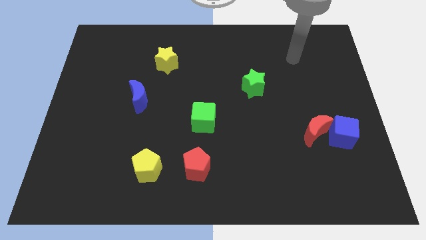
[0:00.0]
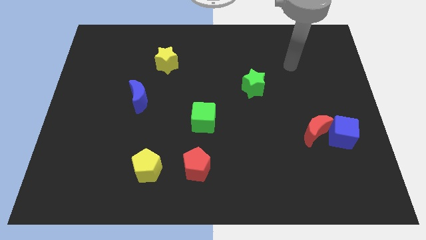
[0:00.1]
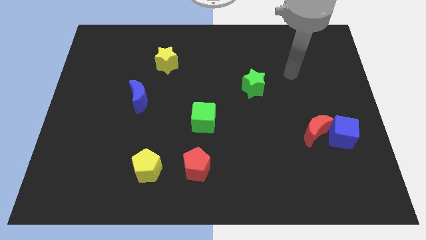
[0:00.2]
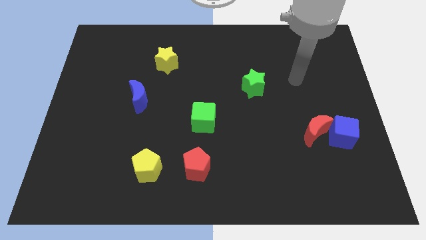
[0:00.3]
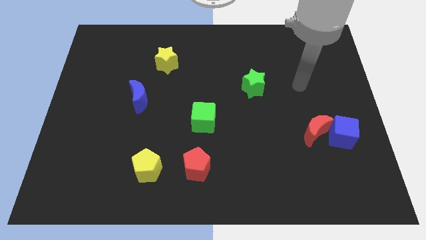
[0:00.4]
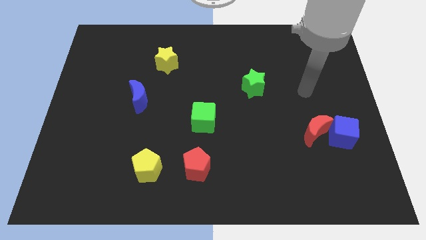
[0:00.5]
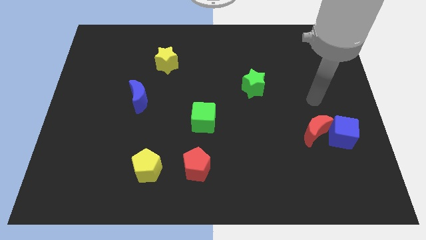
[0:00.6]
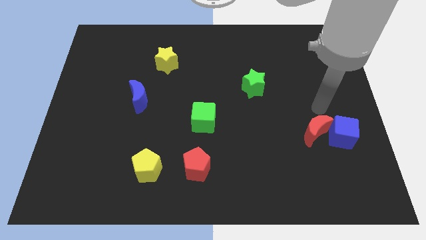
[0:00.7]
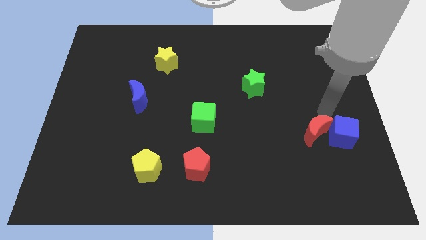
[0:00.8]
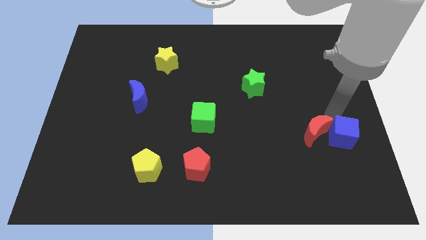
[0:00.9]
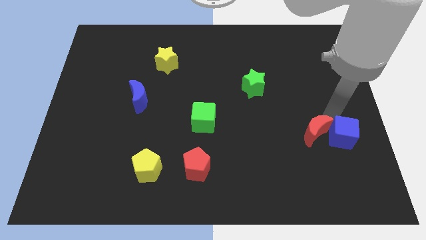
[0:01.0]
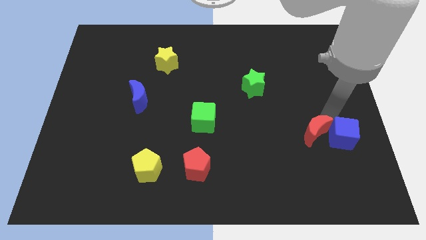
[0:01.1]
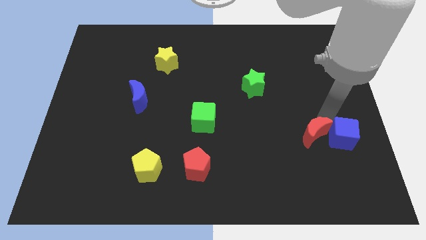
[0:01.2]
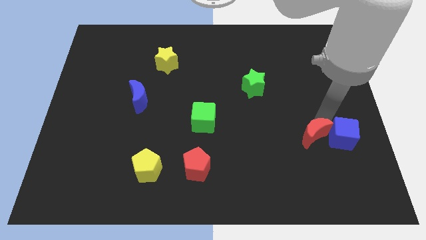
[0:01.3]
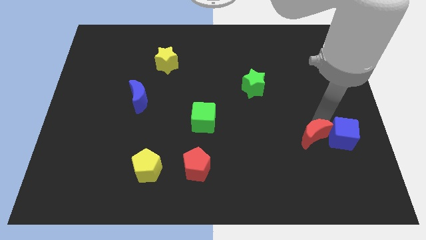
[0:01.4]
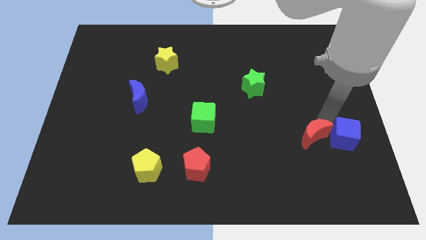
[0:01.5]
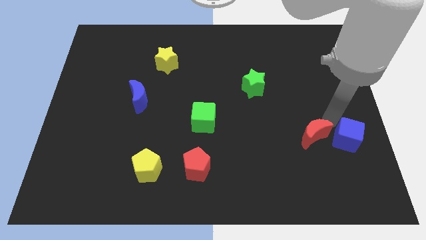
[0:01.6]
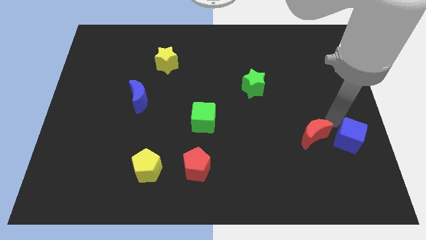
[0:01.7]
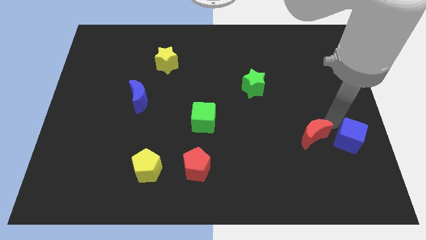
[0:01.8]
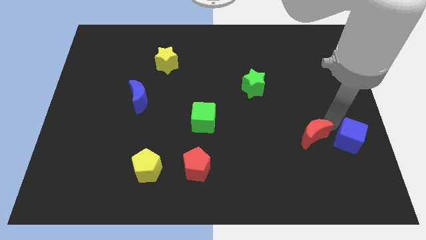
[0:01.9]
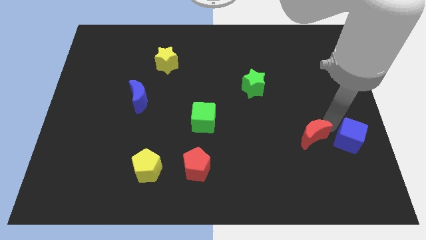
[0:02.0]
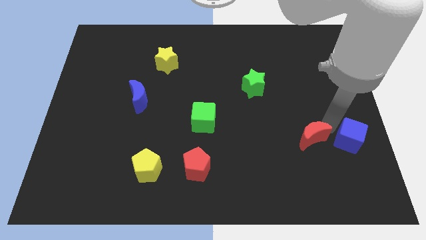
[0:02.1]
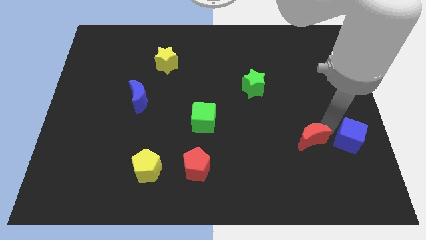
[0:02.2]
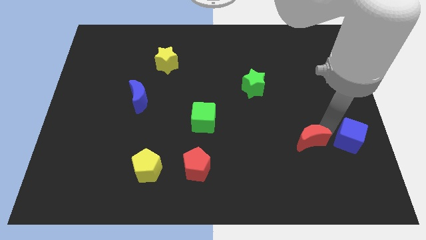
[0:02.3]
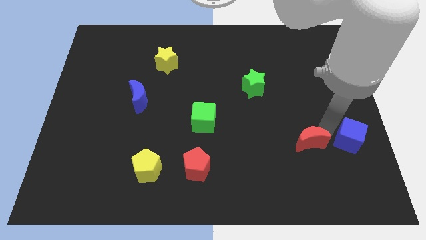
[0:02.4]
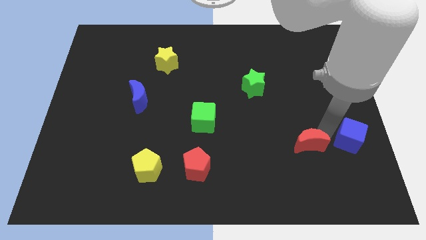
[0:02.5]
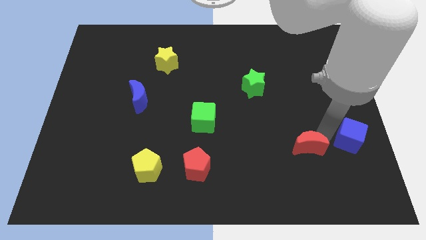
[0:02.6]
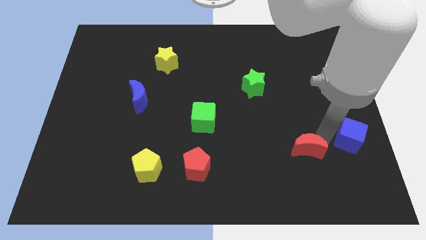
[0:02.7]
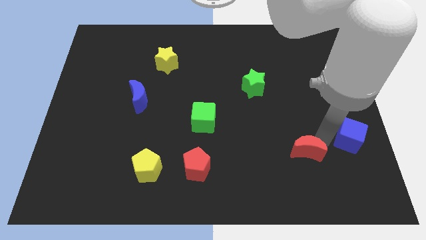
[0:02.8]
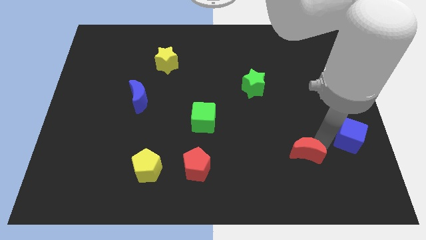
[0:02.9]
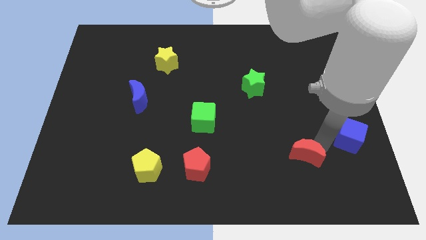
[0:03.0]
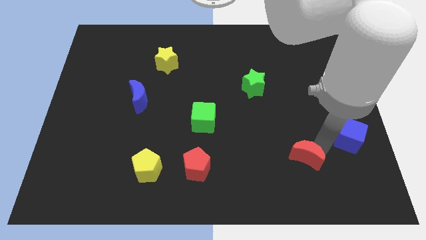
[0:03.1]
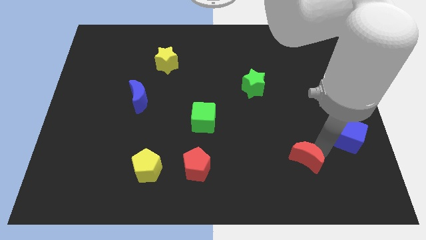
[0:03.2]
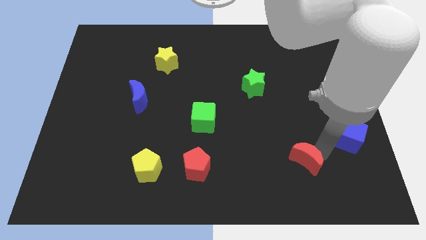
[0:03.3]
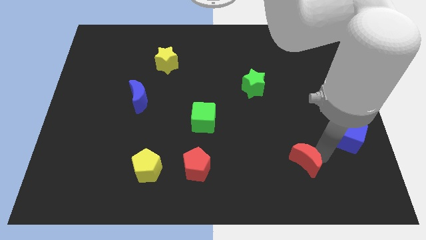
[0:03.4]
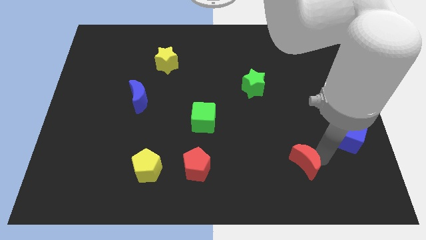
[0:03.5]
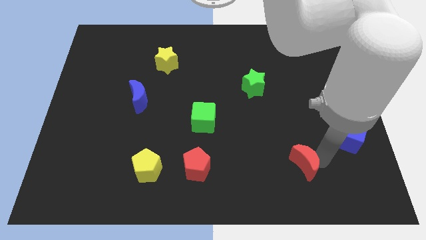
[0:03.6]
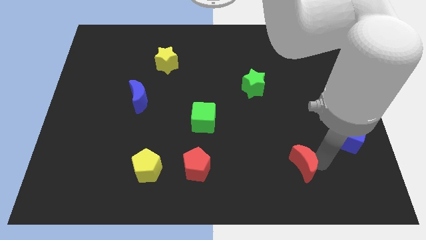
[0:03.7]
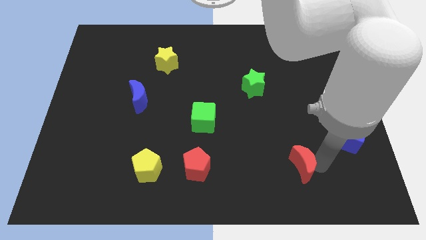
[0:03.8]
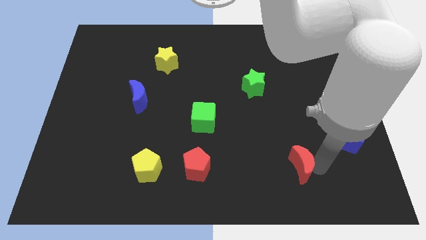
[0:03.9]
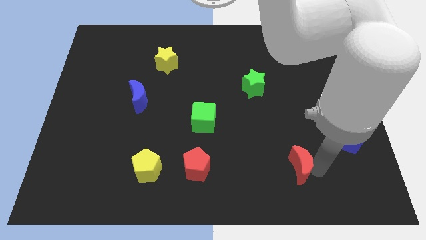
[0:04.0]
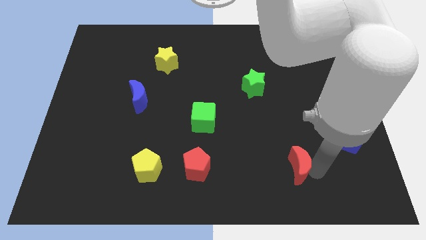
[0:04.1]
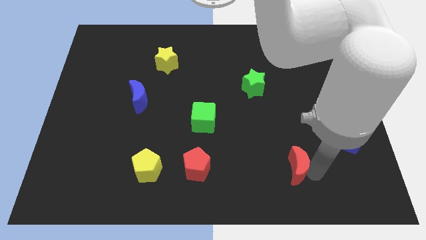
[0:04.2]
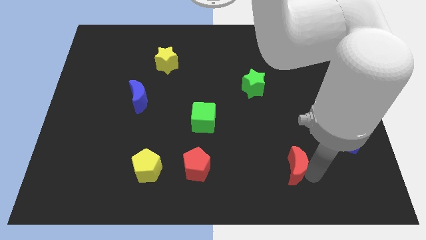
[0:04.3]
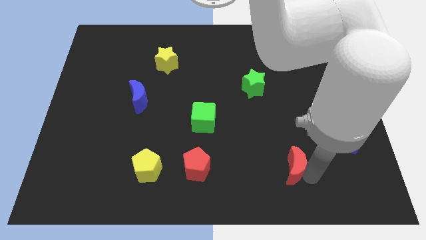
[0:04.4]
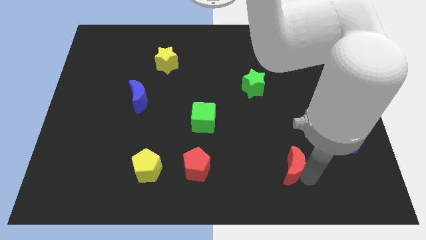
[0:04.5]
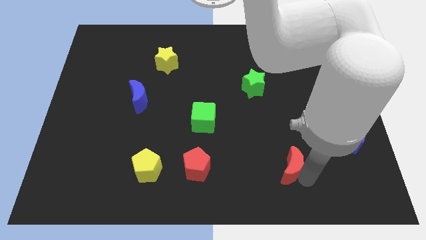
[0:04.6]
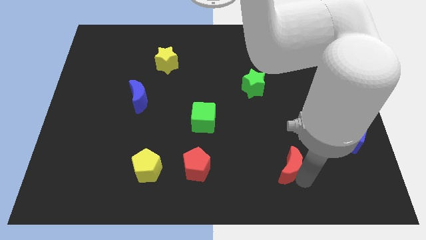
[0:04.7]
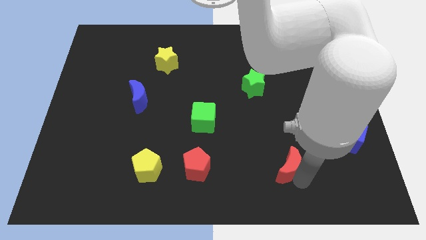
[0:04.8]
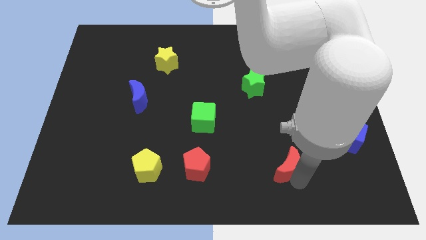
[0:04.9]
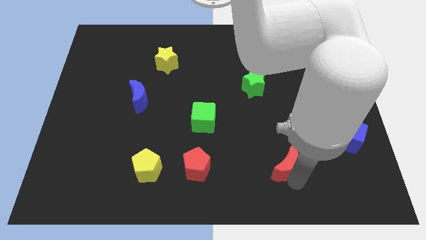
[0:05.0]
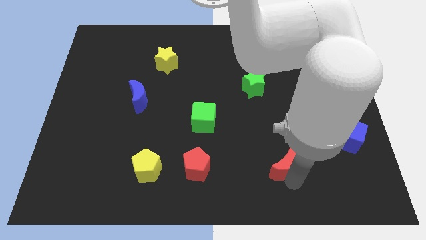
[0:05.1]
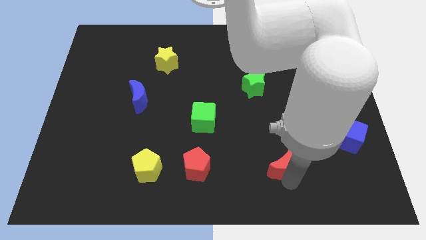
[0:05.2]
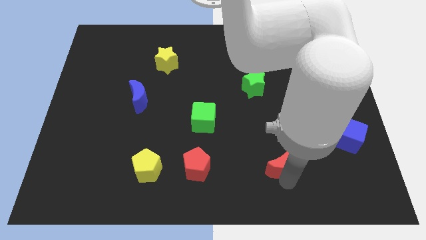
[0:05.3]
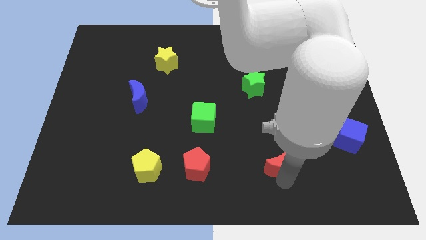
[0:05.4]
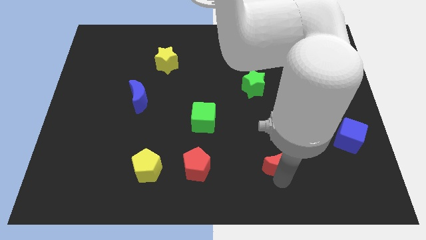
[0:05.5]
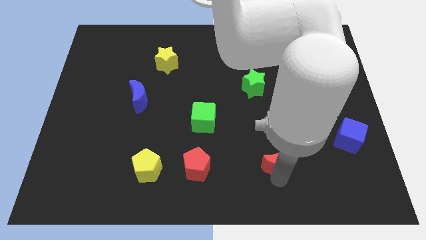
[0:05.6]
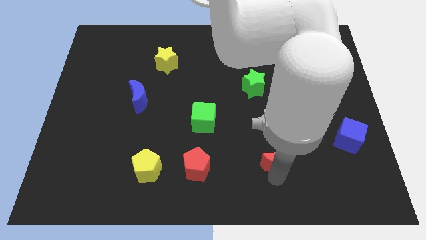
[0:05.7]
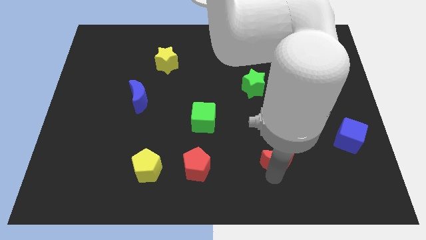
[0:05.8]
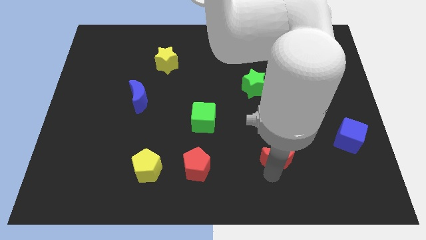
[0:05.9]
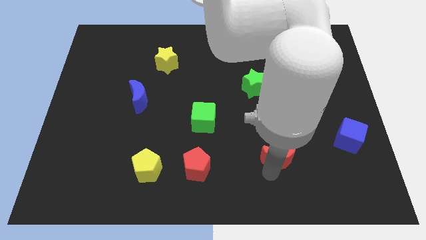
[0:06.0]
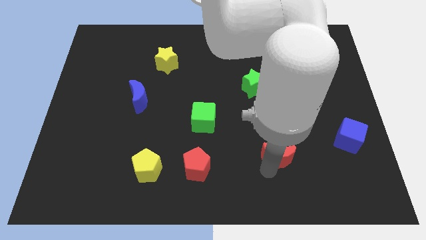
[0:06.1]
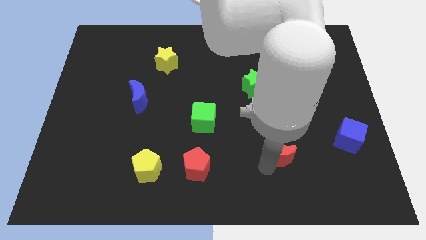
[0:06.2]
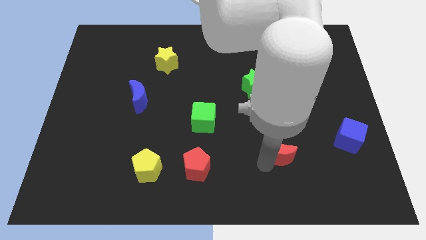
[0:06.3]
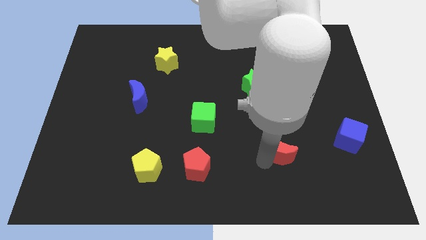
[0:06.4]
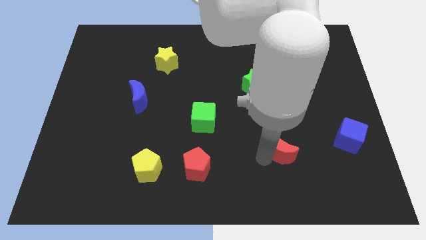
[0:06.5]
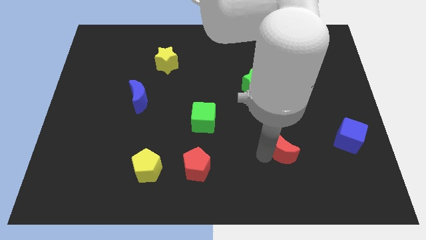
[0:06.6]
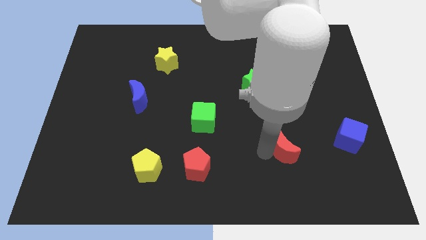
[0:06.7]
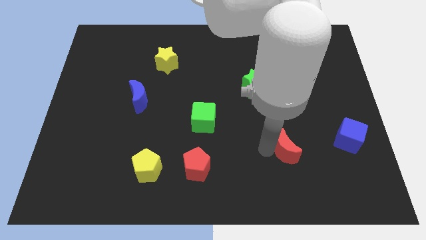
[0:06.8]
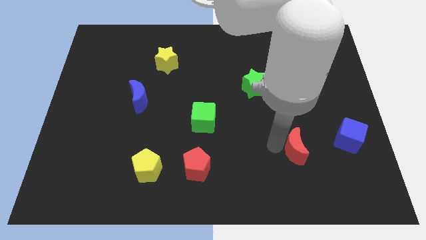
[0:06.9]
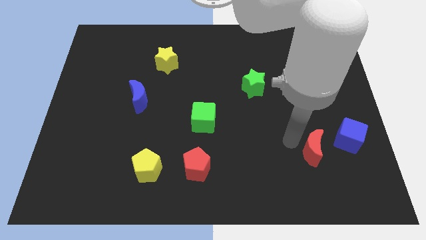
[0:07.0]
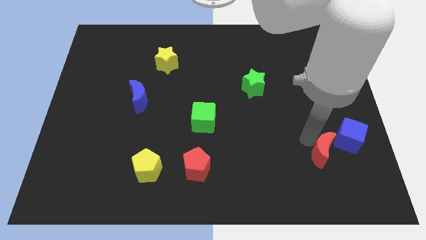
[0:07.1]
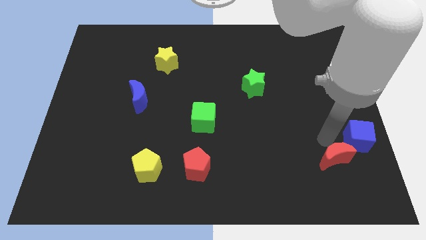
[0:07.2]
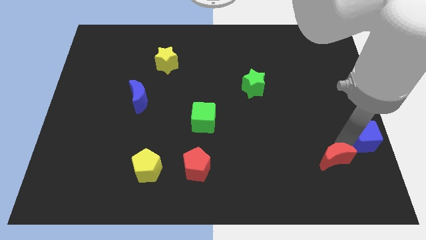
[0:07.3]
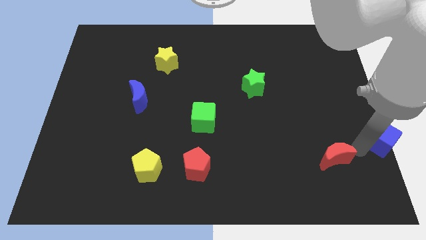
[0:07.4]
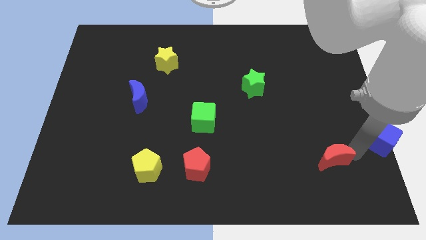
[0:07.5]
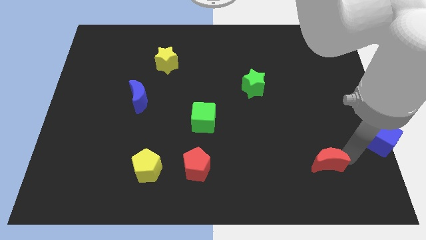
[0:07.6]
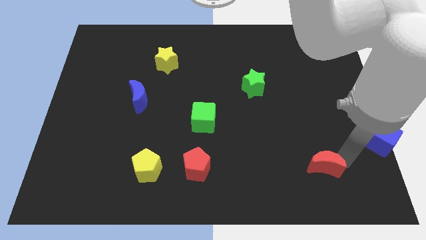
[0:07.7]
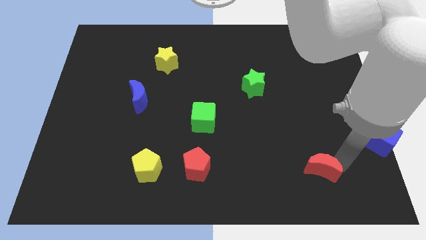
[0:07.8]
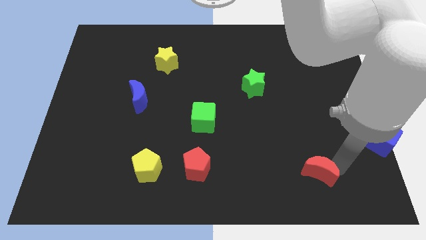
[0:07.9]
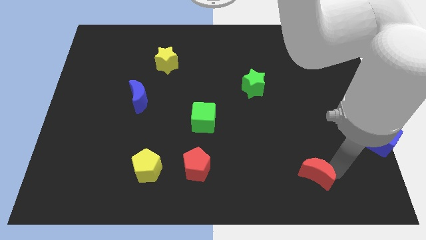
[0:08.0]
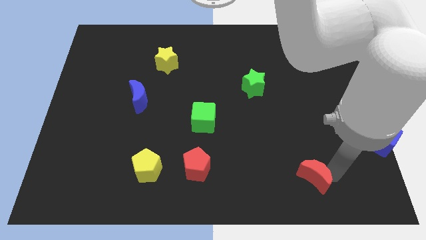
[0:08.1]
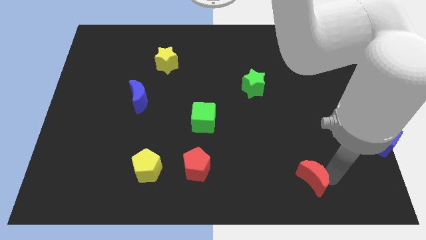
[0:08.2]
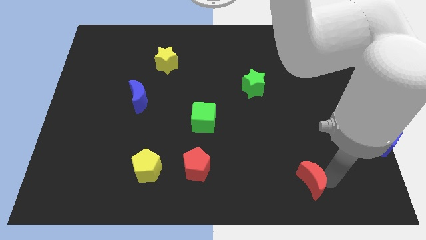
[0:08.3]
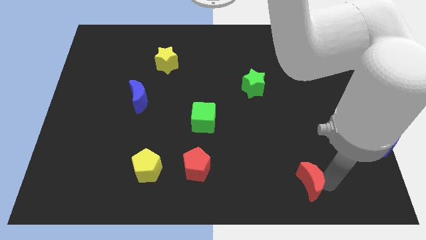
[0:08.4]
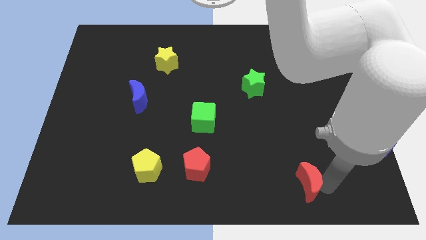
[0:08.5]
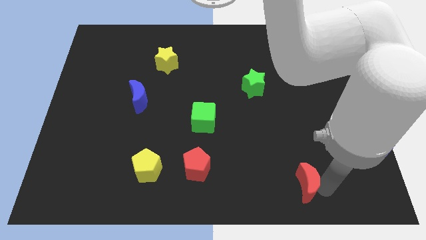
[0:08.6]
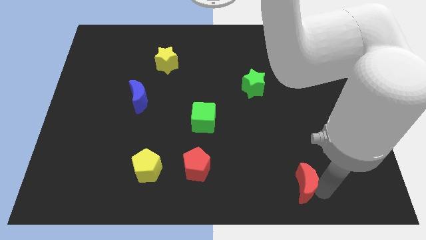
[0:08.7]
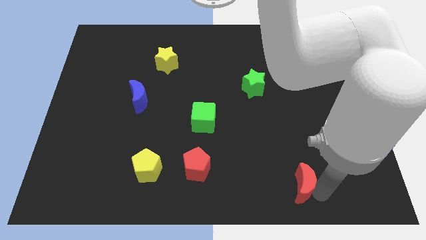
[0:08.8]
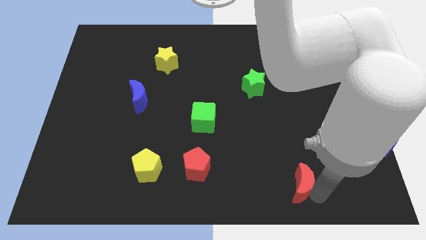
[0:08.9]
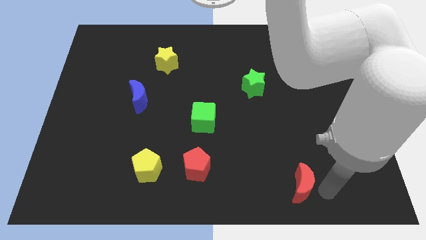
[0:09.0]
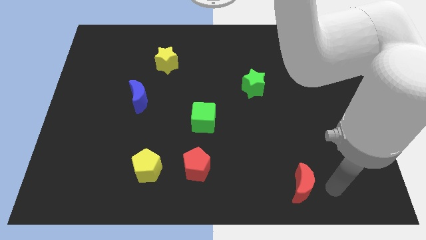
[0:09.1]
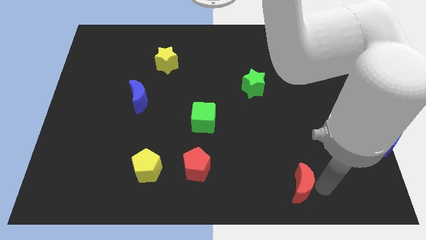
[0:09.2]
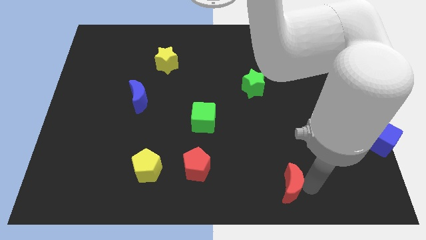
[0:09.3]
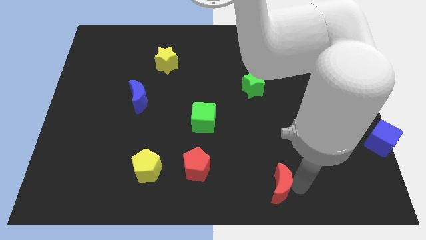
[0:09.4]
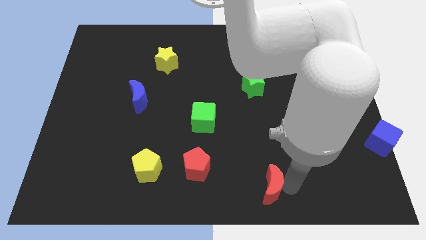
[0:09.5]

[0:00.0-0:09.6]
put the red moon to the bottom
